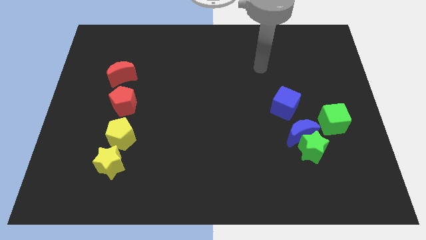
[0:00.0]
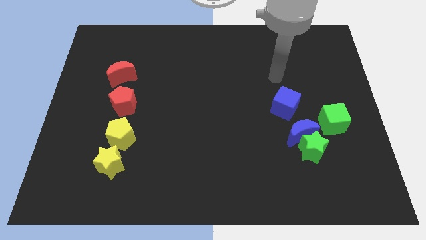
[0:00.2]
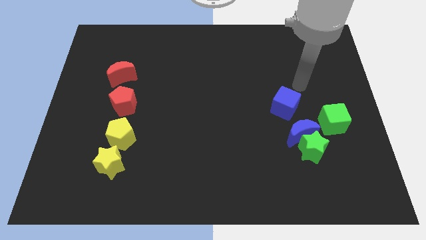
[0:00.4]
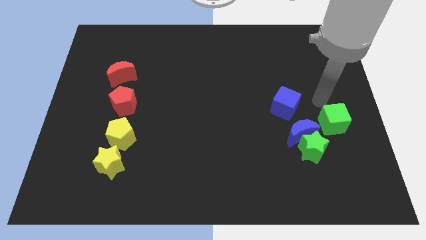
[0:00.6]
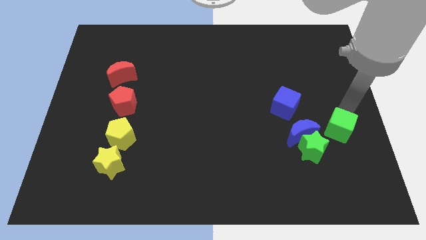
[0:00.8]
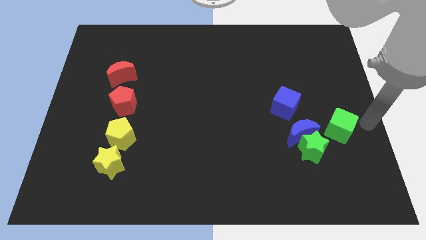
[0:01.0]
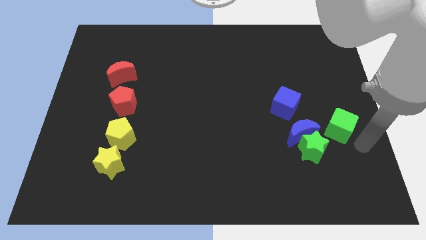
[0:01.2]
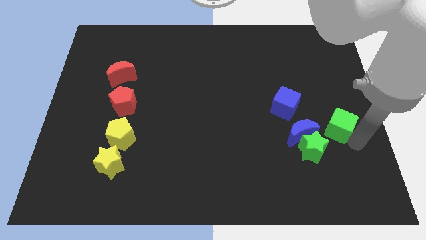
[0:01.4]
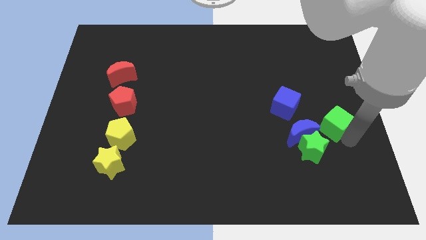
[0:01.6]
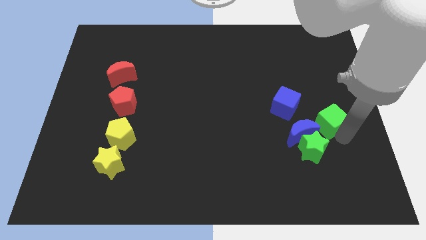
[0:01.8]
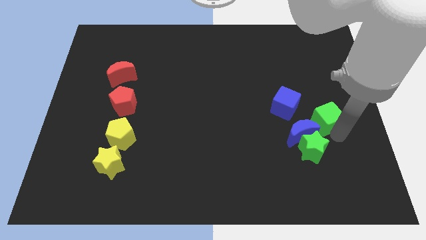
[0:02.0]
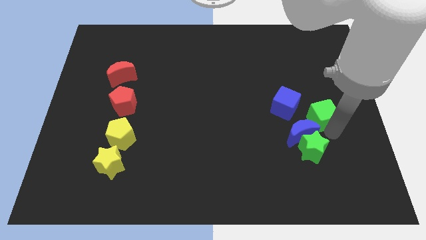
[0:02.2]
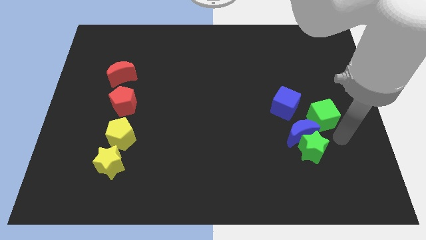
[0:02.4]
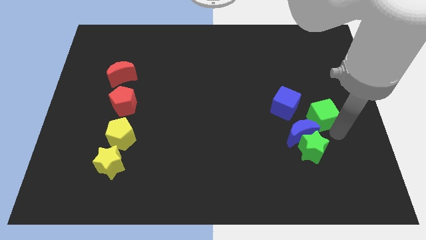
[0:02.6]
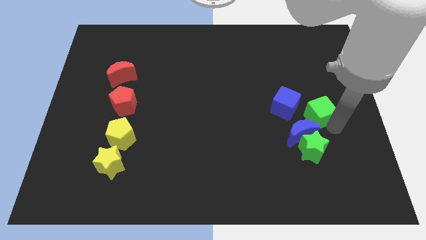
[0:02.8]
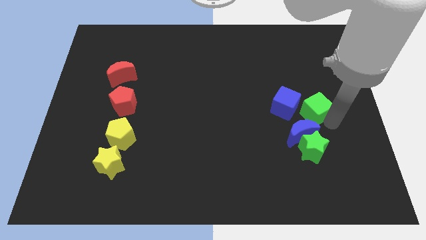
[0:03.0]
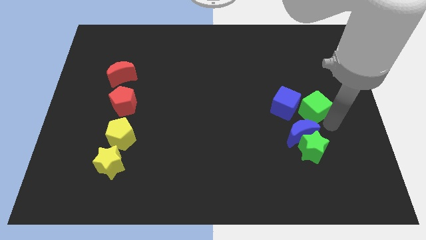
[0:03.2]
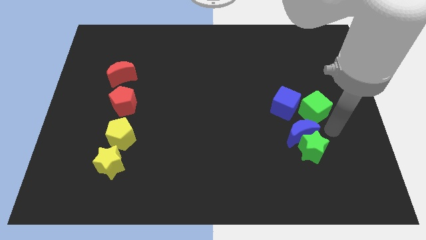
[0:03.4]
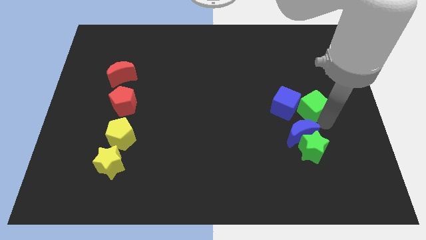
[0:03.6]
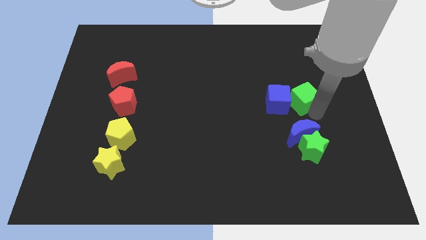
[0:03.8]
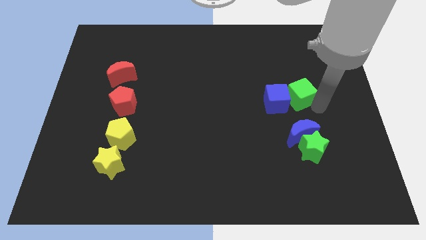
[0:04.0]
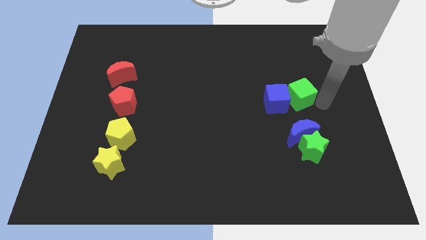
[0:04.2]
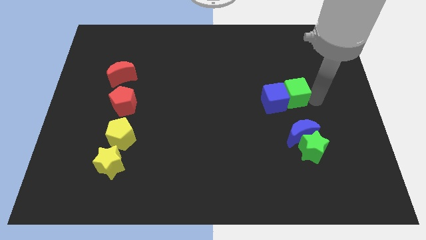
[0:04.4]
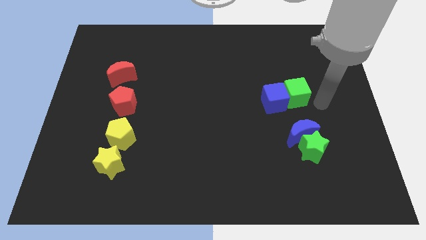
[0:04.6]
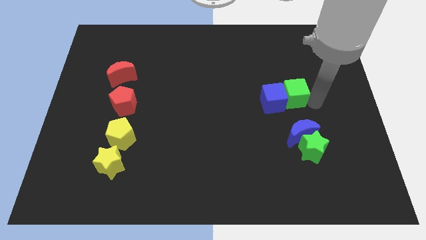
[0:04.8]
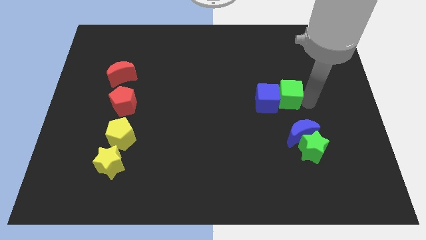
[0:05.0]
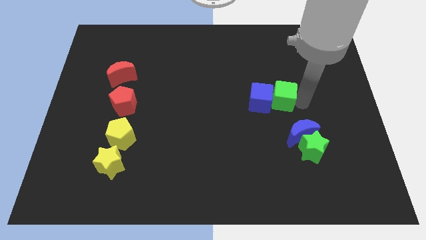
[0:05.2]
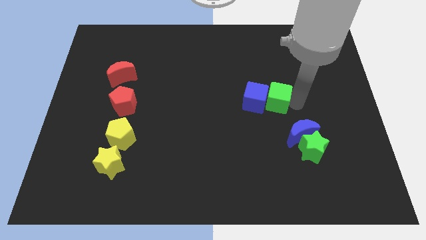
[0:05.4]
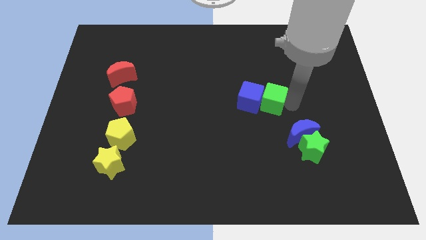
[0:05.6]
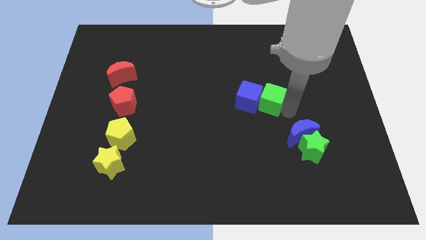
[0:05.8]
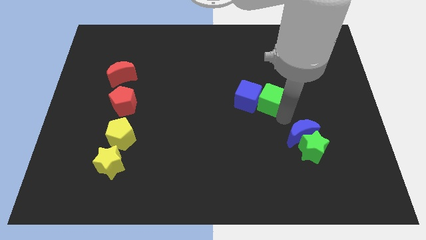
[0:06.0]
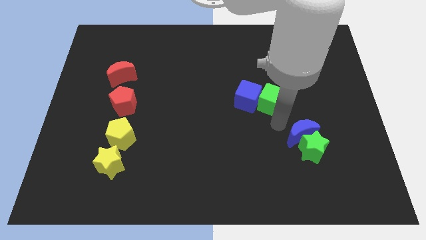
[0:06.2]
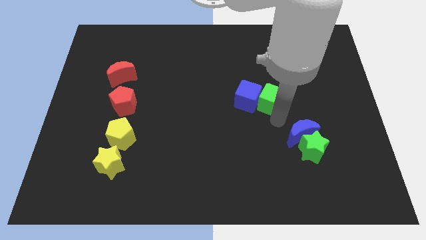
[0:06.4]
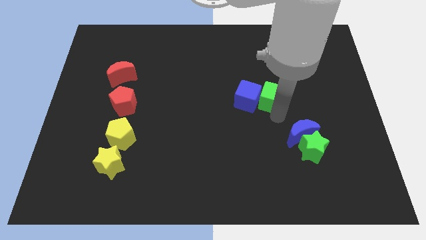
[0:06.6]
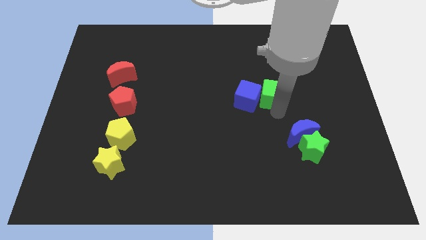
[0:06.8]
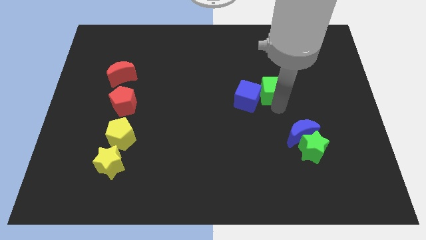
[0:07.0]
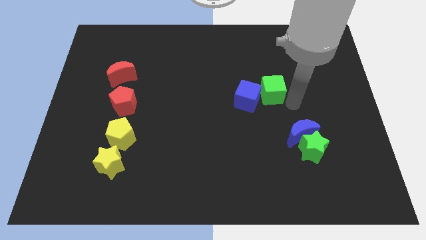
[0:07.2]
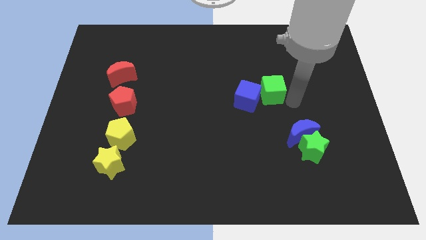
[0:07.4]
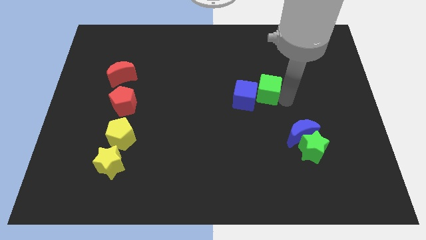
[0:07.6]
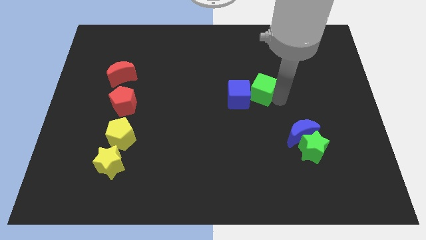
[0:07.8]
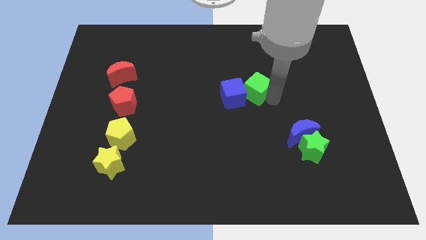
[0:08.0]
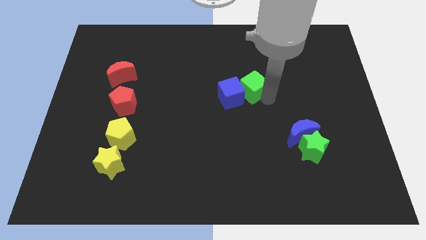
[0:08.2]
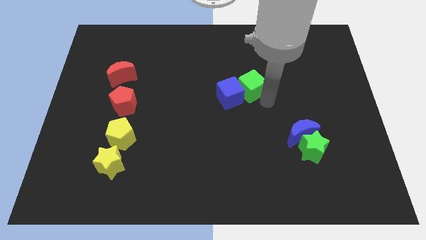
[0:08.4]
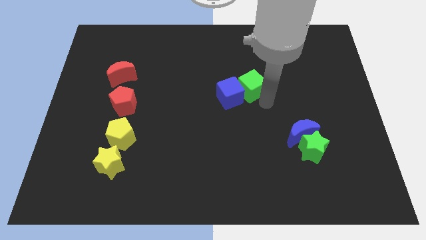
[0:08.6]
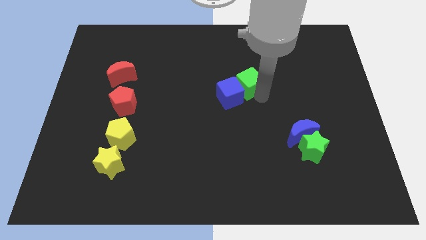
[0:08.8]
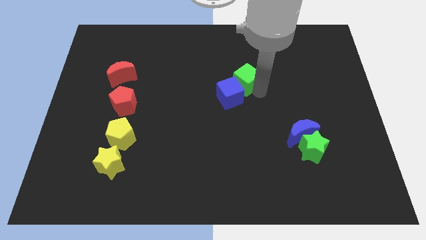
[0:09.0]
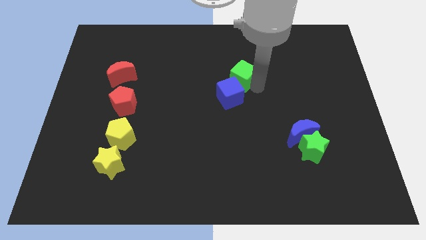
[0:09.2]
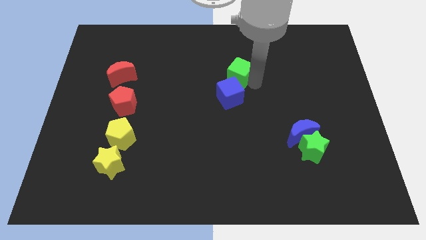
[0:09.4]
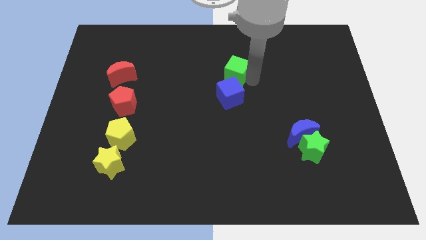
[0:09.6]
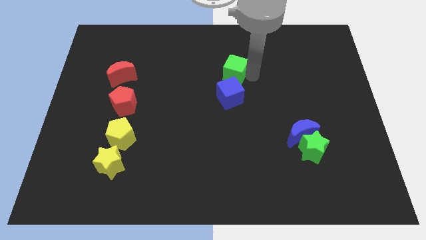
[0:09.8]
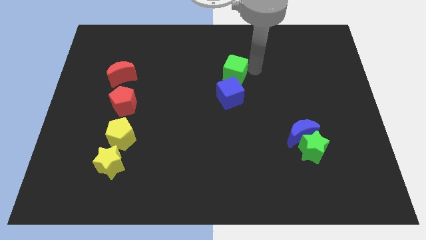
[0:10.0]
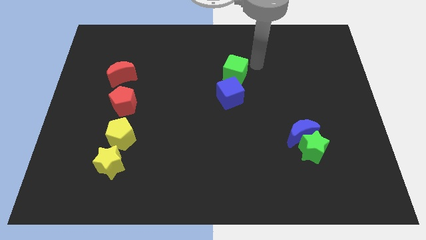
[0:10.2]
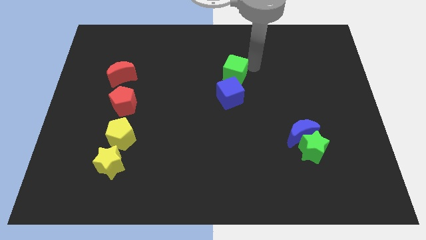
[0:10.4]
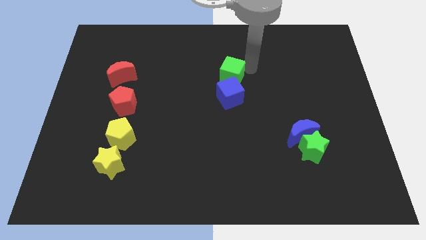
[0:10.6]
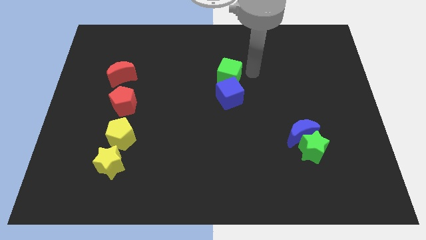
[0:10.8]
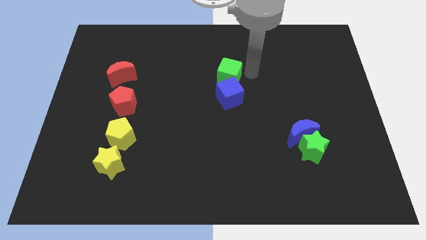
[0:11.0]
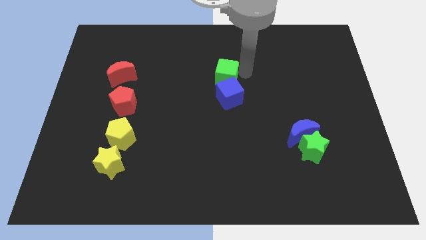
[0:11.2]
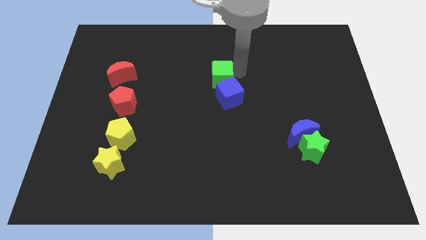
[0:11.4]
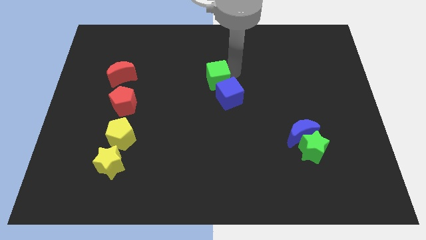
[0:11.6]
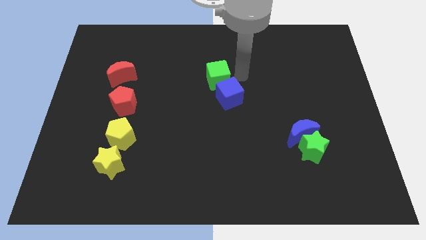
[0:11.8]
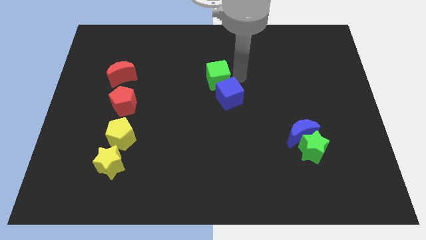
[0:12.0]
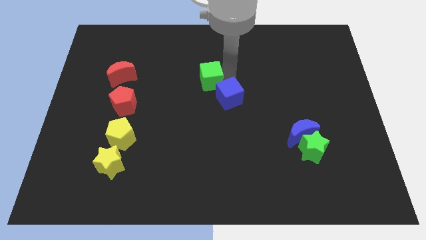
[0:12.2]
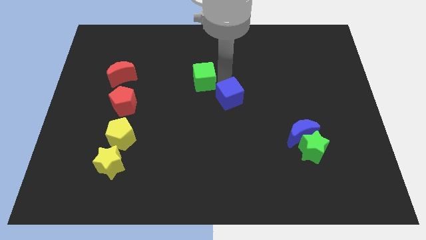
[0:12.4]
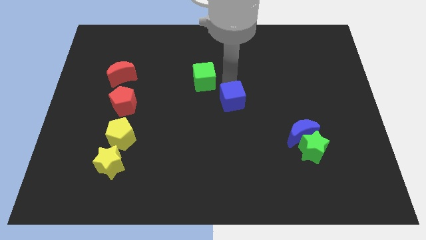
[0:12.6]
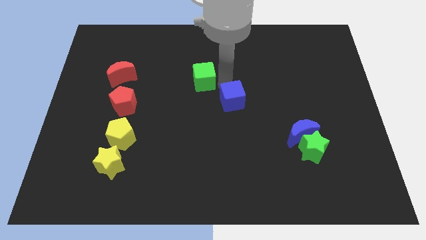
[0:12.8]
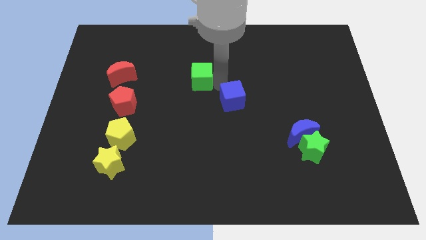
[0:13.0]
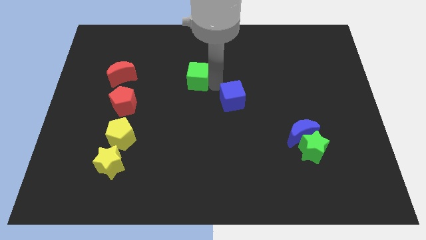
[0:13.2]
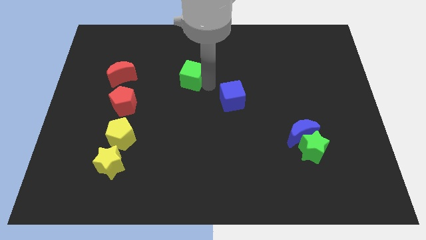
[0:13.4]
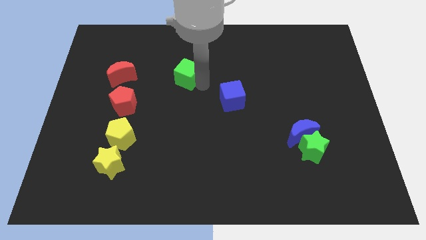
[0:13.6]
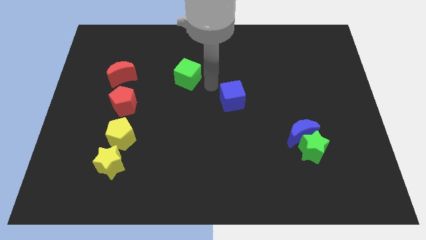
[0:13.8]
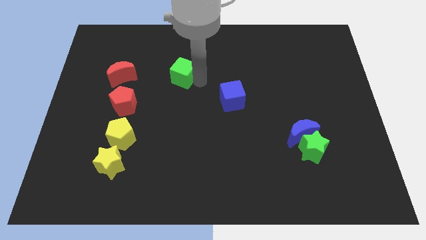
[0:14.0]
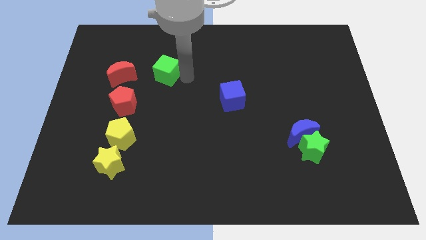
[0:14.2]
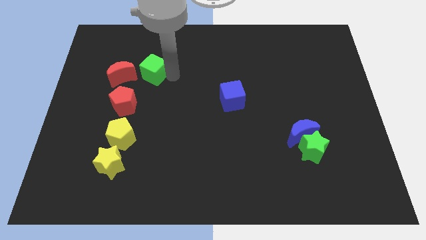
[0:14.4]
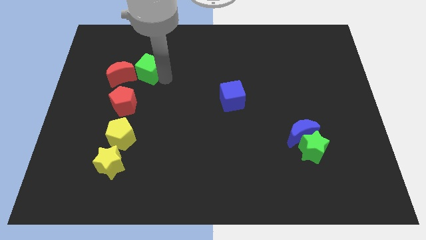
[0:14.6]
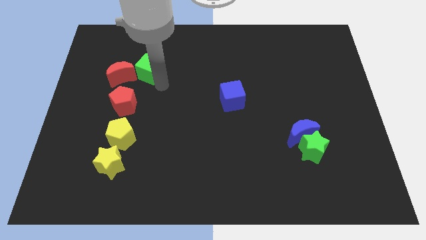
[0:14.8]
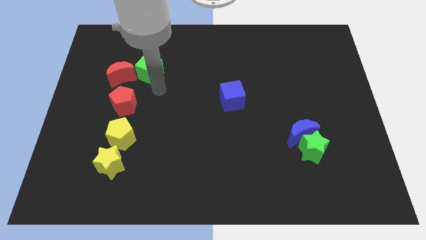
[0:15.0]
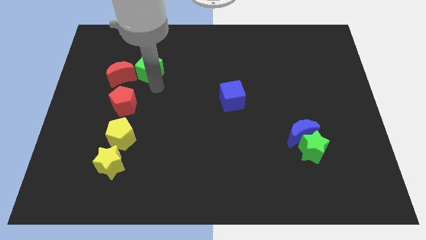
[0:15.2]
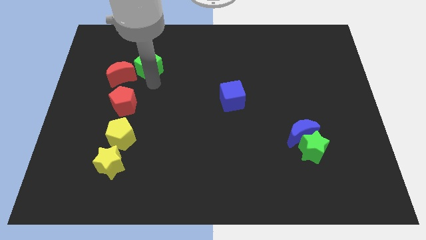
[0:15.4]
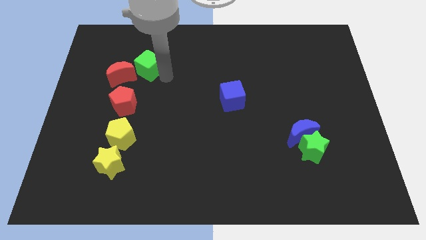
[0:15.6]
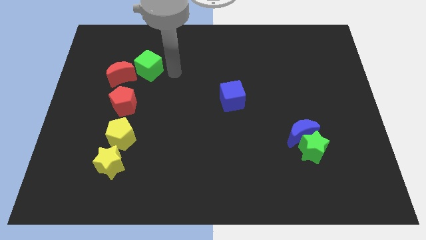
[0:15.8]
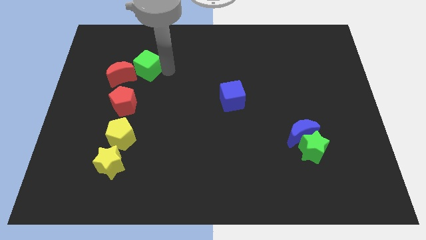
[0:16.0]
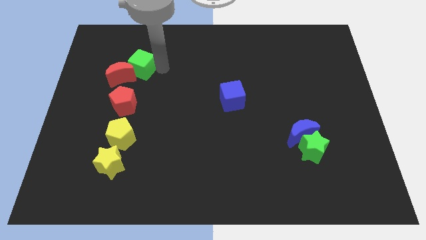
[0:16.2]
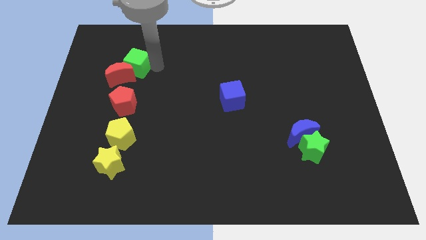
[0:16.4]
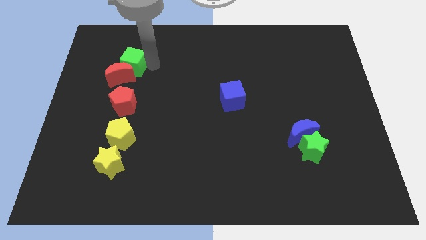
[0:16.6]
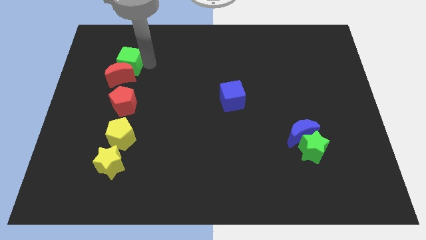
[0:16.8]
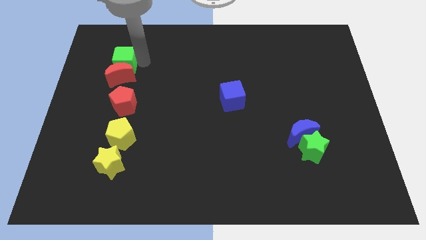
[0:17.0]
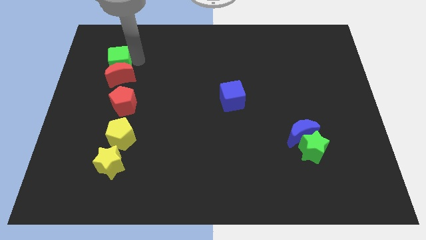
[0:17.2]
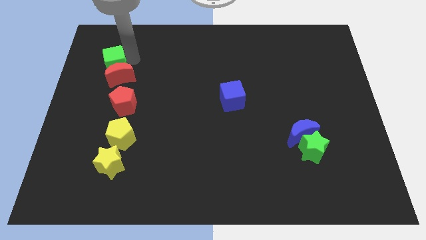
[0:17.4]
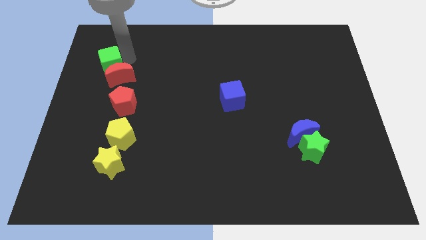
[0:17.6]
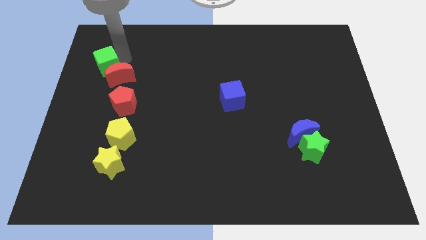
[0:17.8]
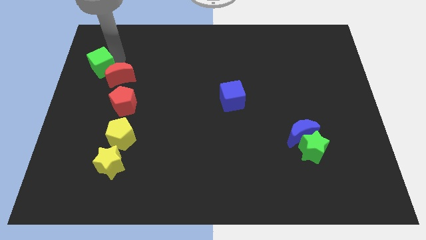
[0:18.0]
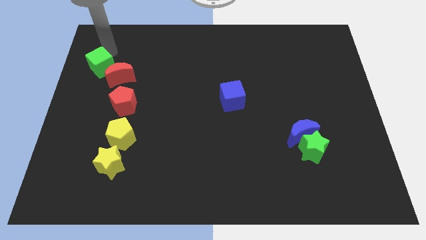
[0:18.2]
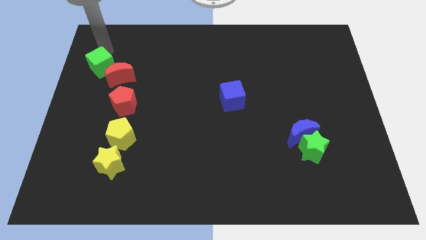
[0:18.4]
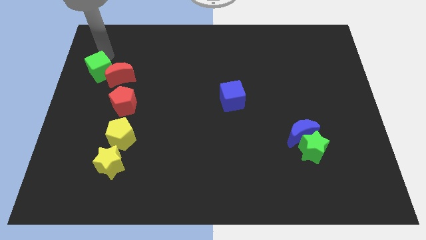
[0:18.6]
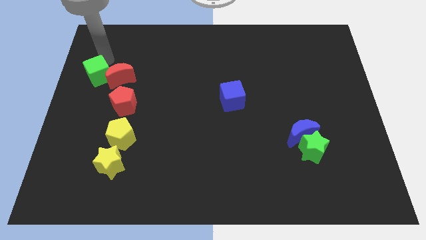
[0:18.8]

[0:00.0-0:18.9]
slide the green cube to the bottom left side of the red moon
